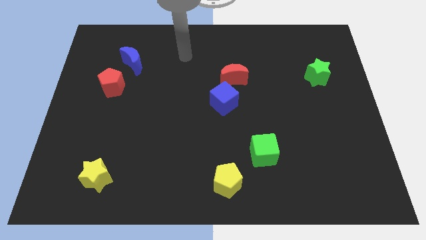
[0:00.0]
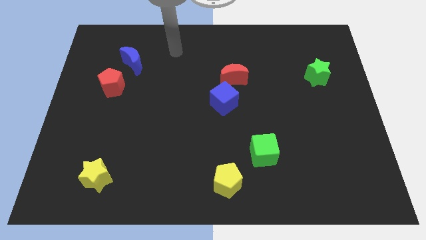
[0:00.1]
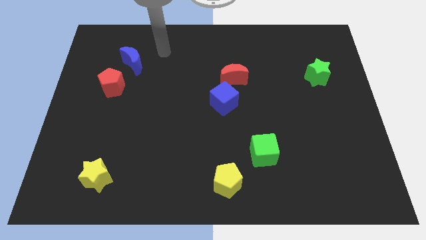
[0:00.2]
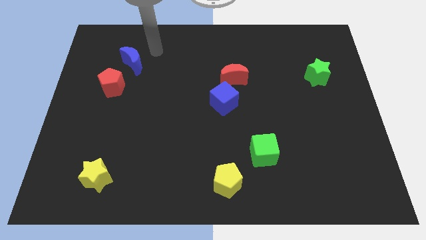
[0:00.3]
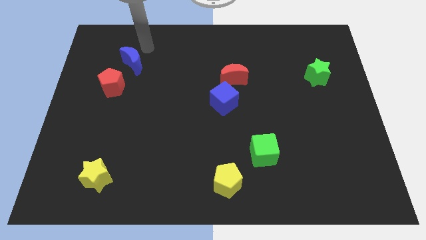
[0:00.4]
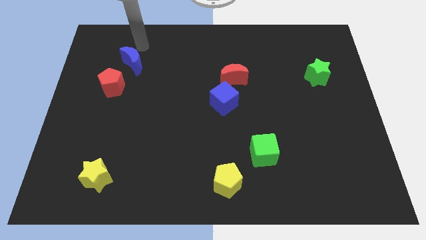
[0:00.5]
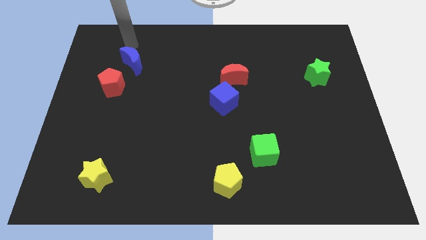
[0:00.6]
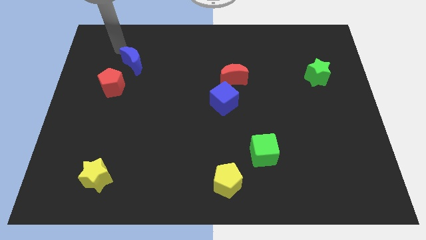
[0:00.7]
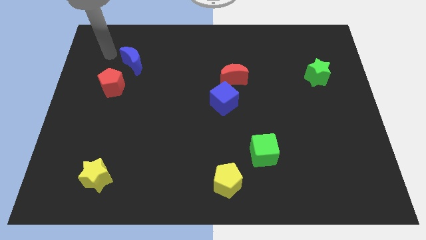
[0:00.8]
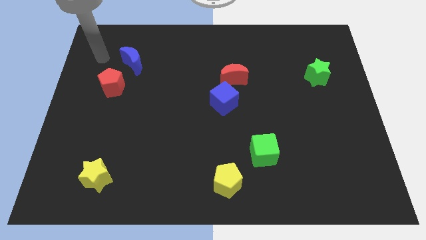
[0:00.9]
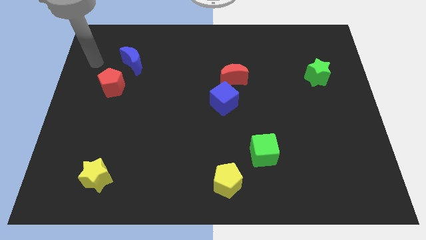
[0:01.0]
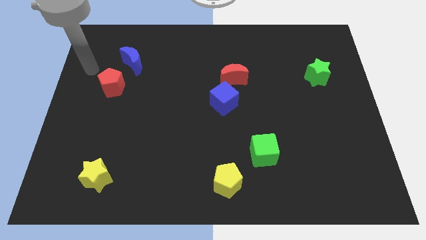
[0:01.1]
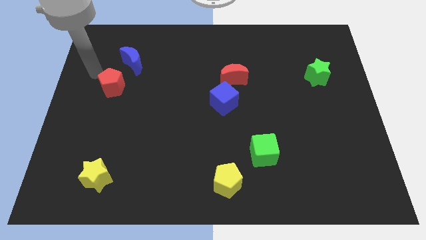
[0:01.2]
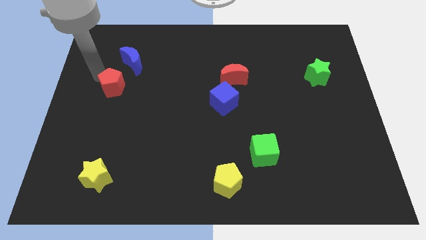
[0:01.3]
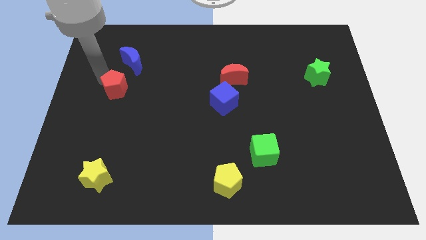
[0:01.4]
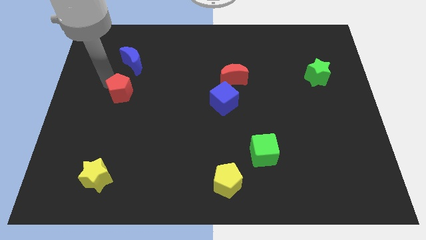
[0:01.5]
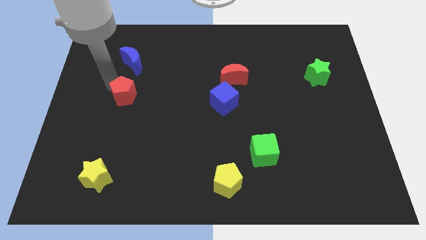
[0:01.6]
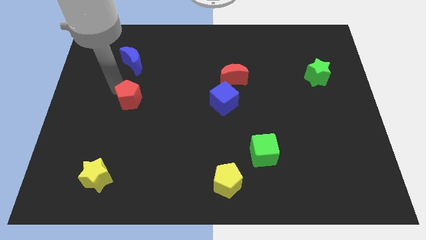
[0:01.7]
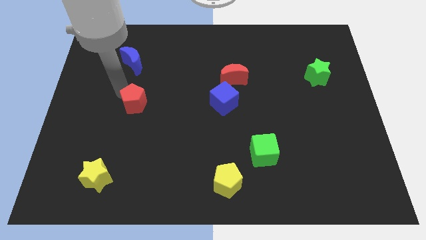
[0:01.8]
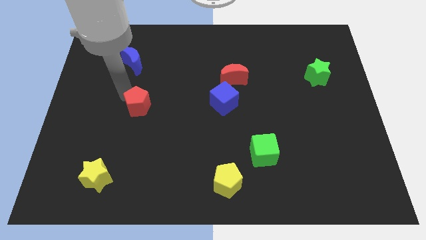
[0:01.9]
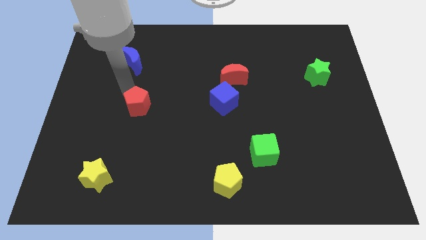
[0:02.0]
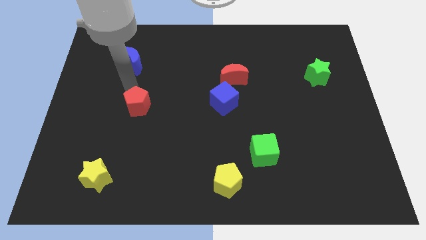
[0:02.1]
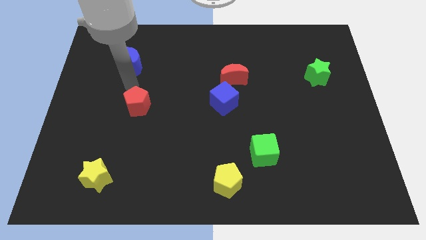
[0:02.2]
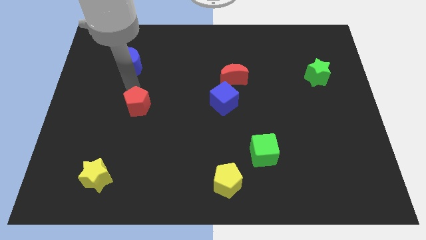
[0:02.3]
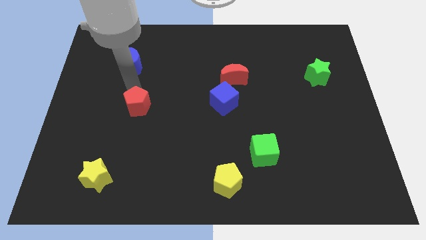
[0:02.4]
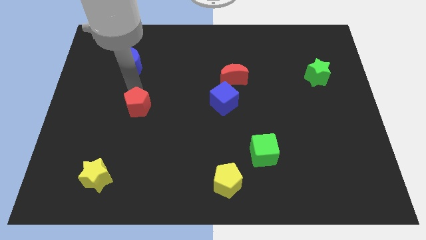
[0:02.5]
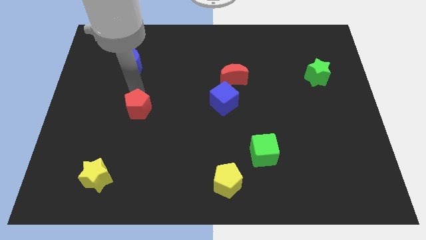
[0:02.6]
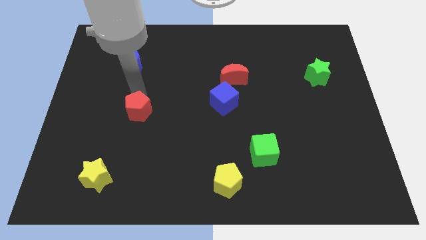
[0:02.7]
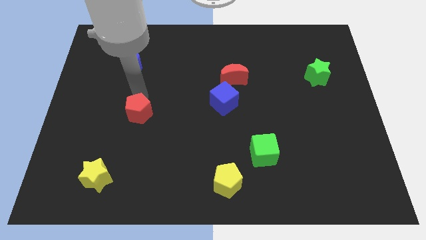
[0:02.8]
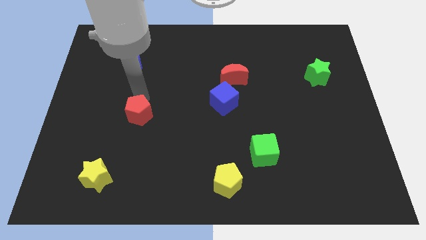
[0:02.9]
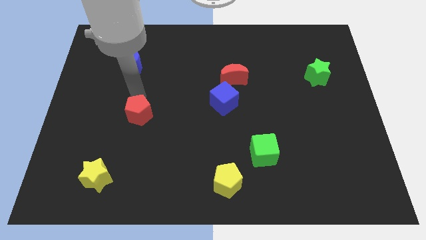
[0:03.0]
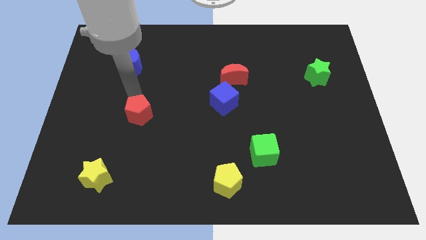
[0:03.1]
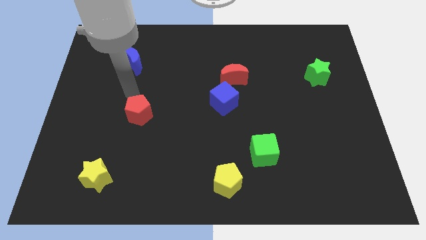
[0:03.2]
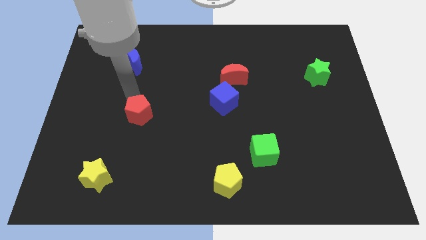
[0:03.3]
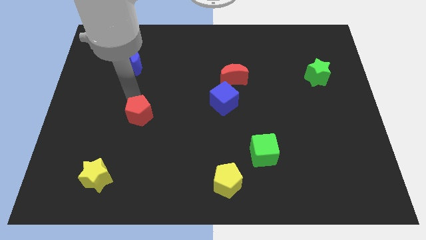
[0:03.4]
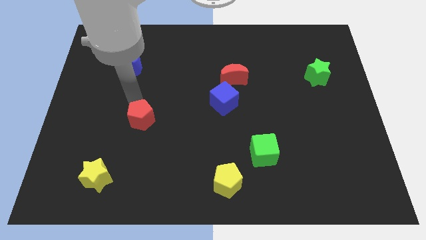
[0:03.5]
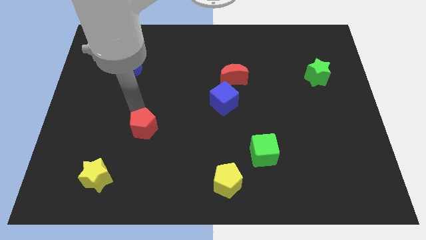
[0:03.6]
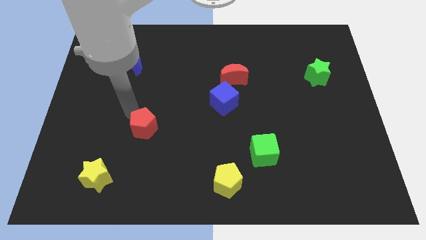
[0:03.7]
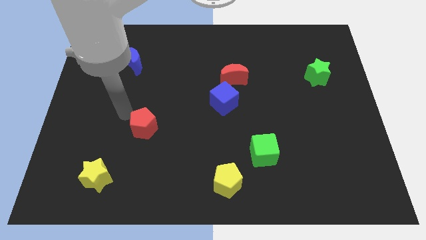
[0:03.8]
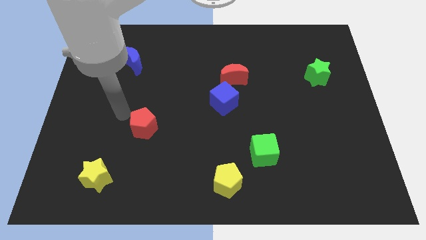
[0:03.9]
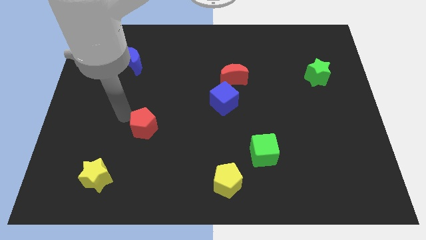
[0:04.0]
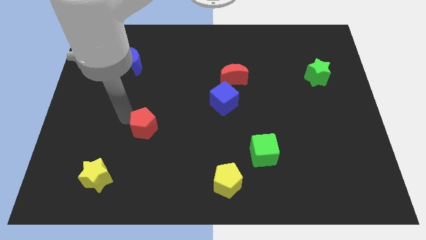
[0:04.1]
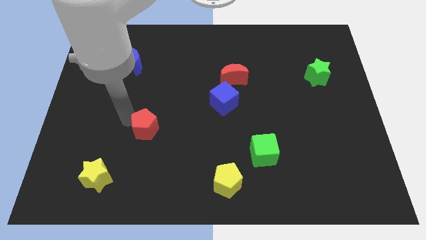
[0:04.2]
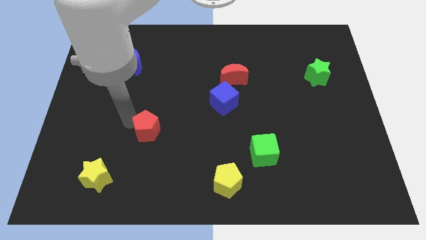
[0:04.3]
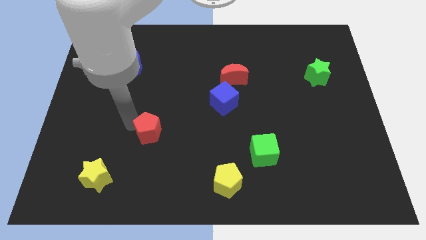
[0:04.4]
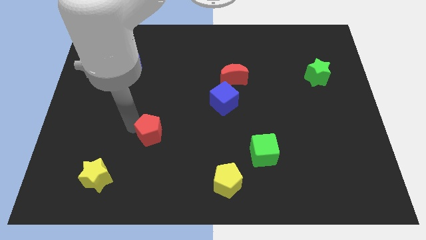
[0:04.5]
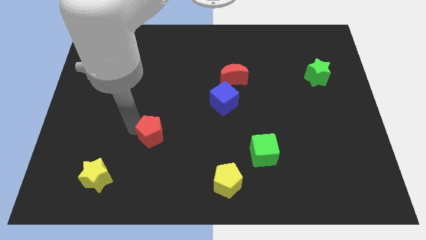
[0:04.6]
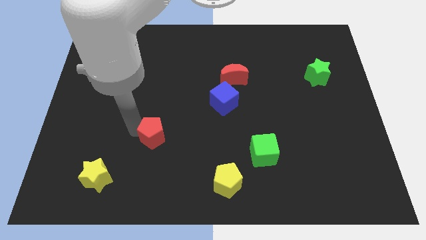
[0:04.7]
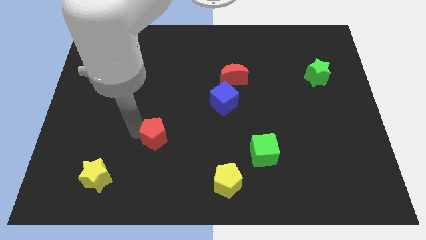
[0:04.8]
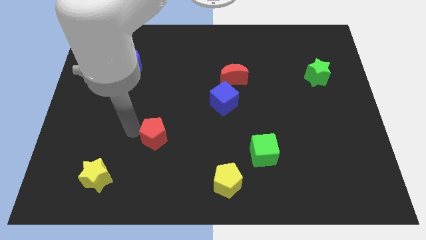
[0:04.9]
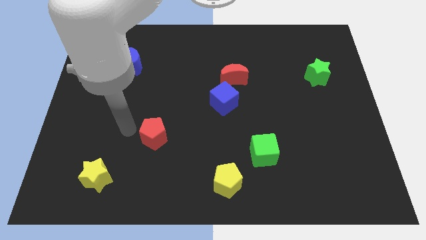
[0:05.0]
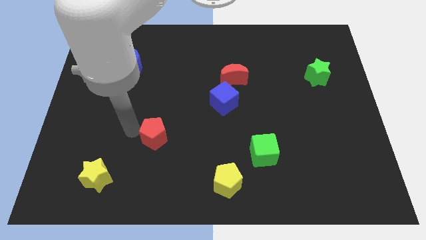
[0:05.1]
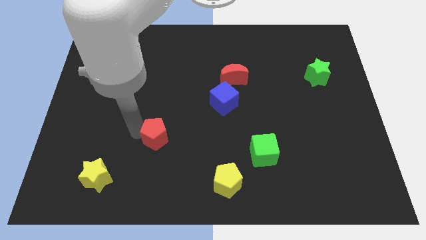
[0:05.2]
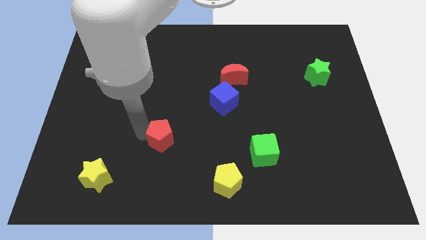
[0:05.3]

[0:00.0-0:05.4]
slide the red pentagon down and then right

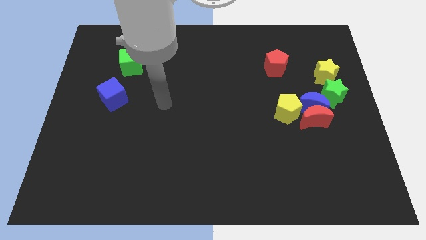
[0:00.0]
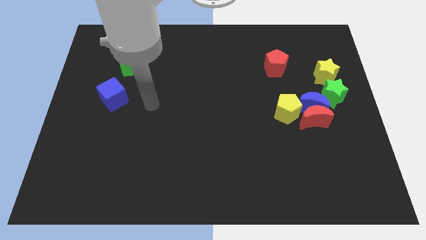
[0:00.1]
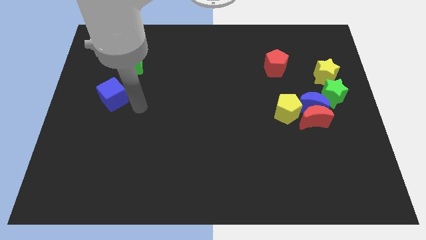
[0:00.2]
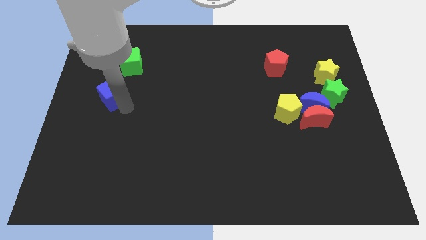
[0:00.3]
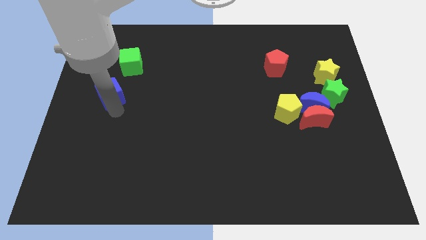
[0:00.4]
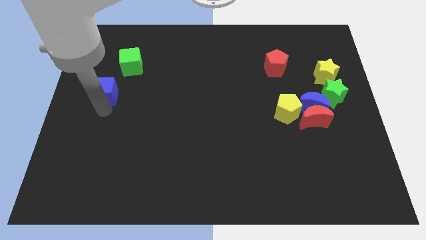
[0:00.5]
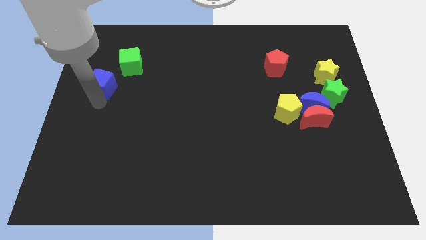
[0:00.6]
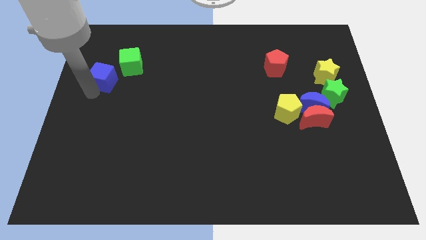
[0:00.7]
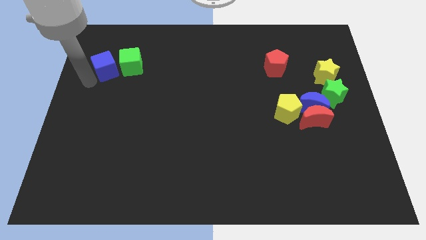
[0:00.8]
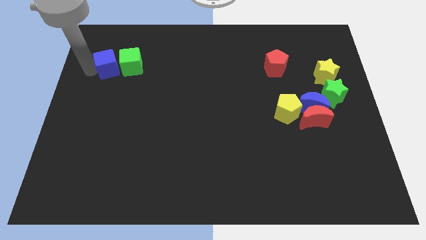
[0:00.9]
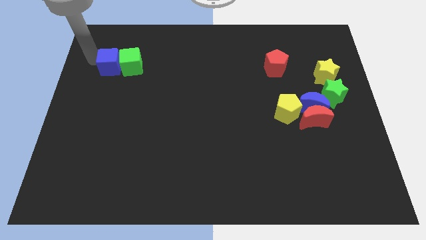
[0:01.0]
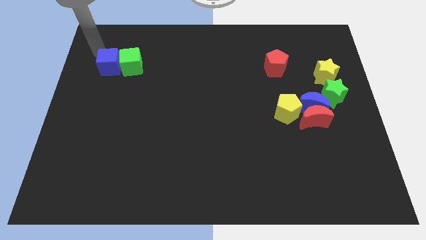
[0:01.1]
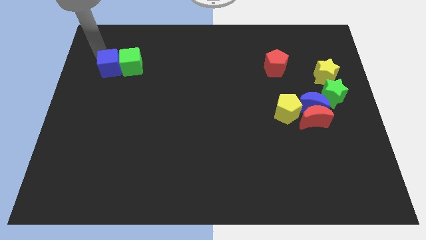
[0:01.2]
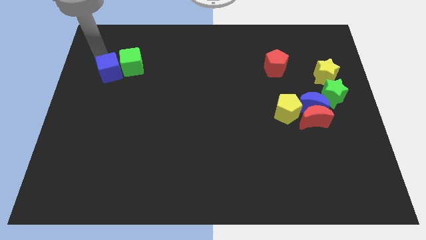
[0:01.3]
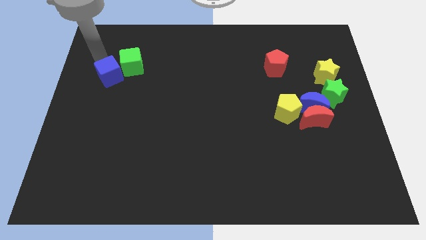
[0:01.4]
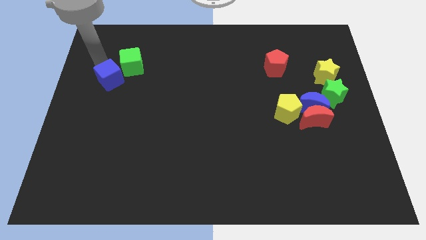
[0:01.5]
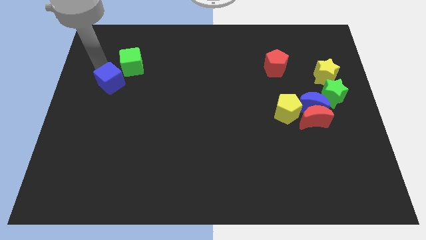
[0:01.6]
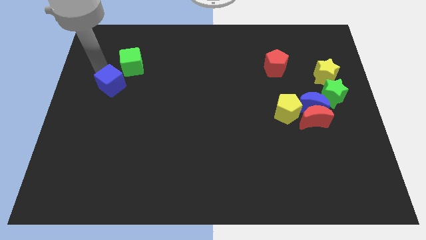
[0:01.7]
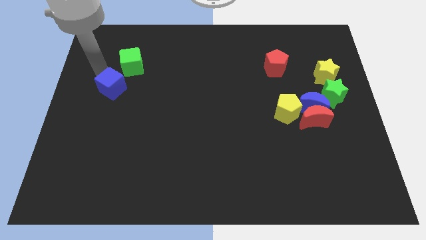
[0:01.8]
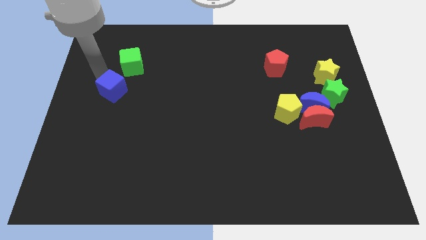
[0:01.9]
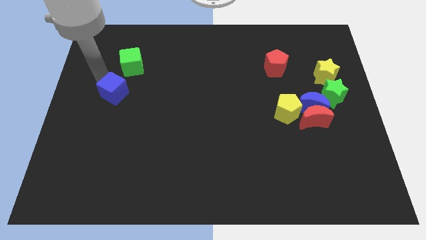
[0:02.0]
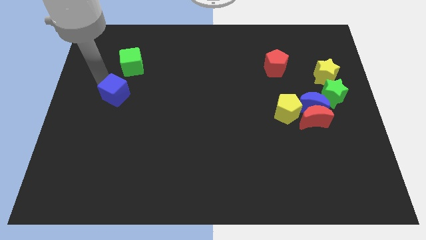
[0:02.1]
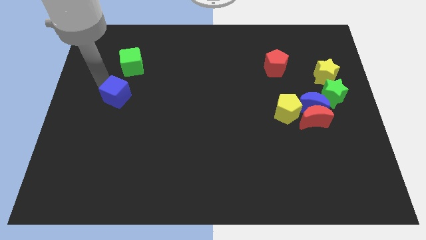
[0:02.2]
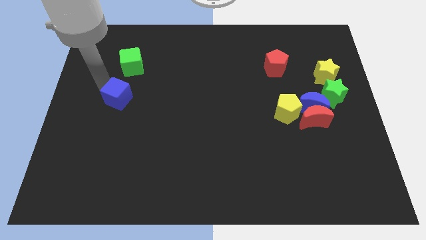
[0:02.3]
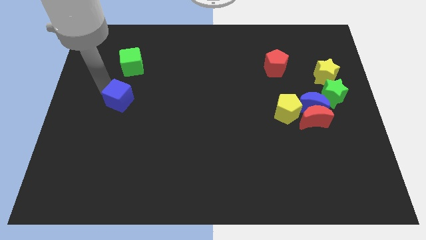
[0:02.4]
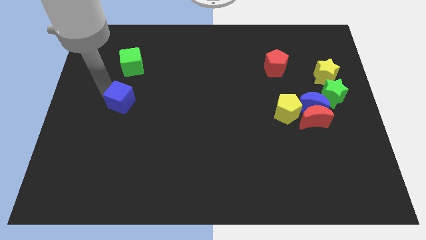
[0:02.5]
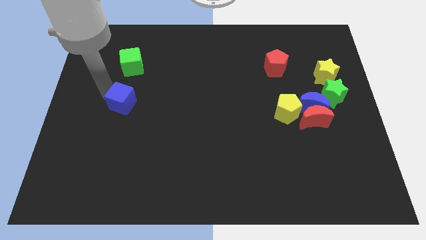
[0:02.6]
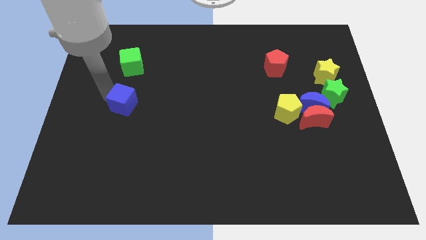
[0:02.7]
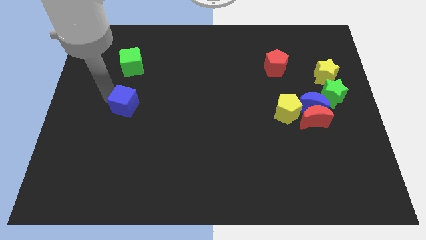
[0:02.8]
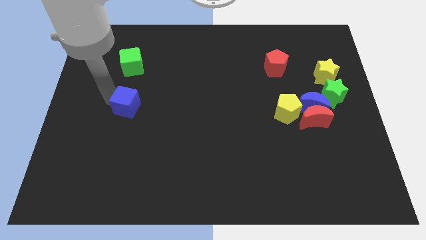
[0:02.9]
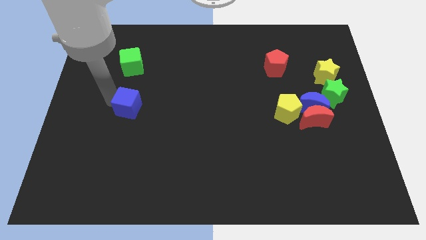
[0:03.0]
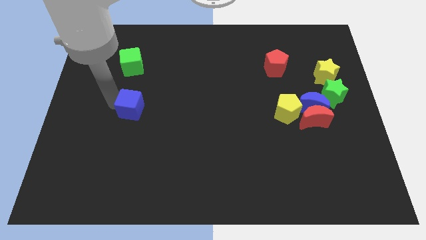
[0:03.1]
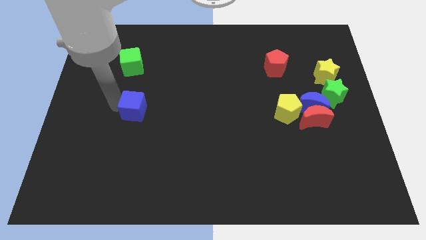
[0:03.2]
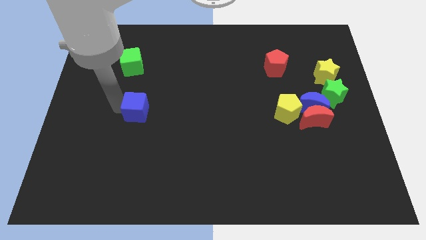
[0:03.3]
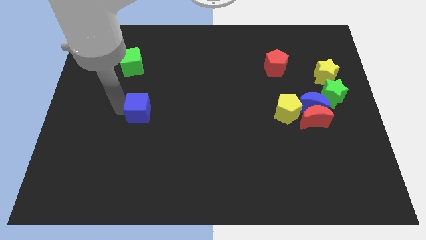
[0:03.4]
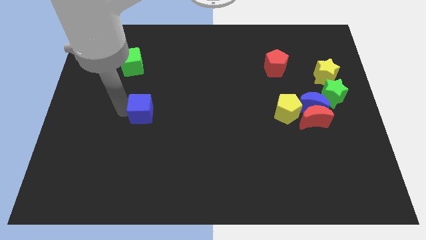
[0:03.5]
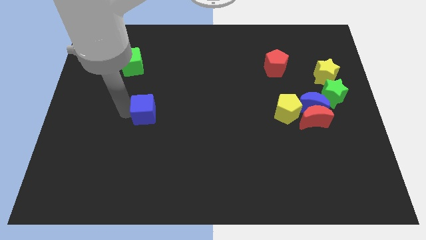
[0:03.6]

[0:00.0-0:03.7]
push the blue cube to the right a bit
